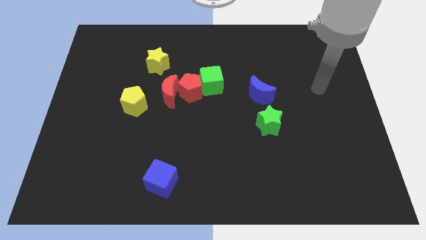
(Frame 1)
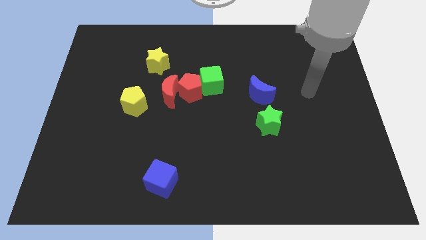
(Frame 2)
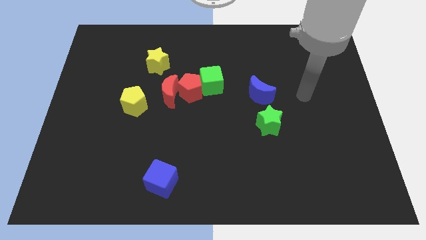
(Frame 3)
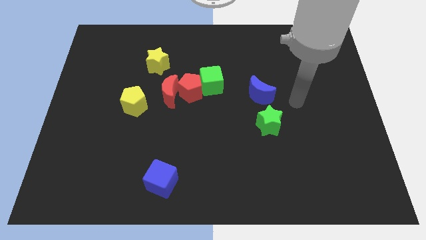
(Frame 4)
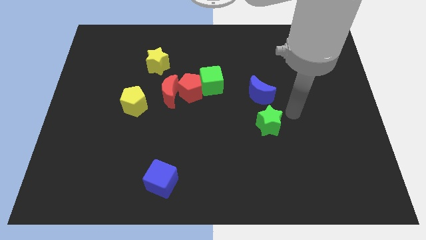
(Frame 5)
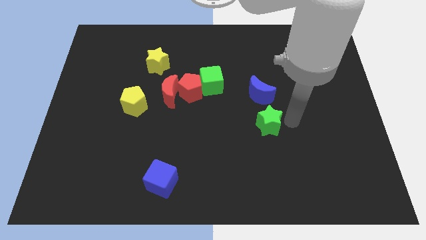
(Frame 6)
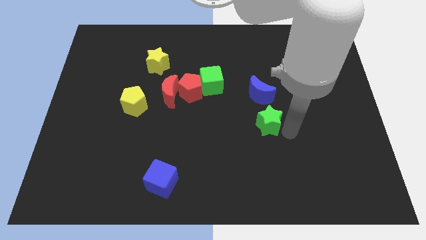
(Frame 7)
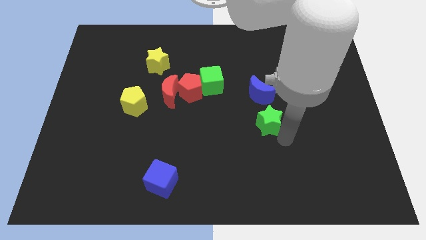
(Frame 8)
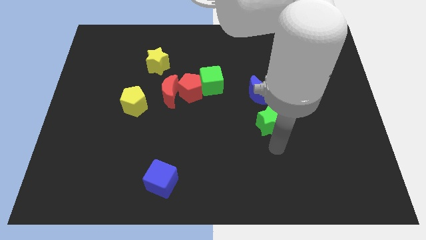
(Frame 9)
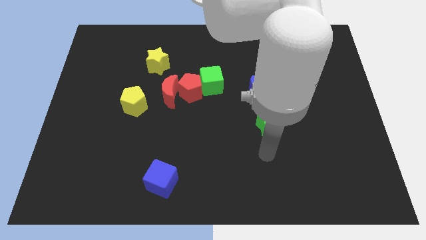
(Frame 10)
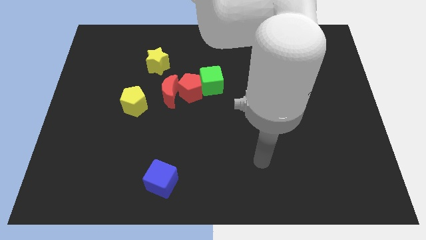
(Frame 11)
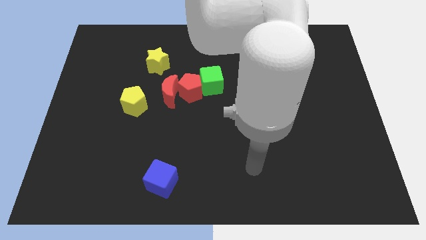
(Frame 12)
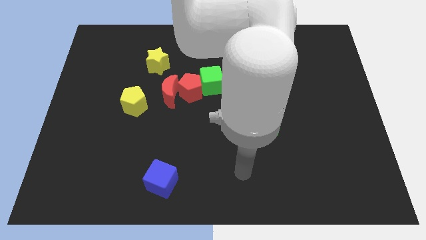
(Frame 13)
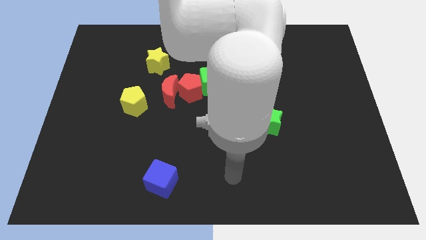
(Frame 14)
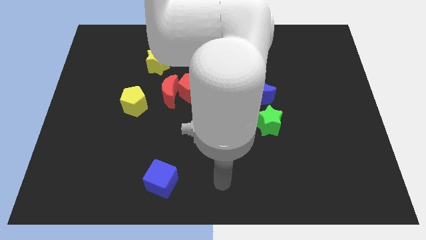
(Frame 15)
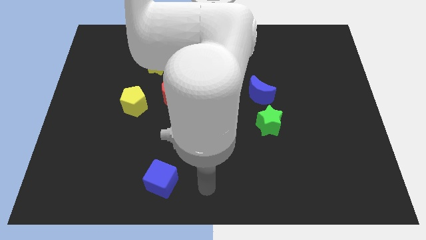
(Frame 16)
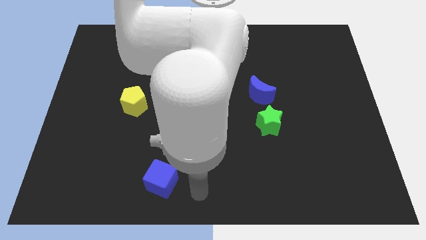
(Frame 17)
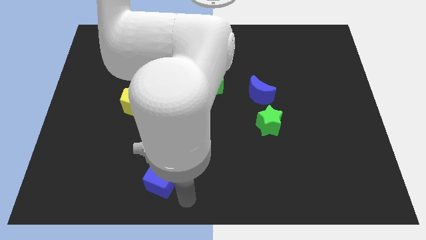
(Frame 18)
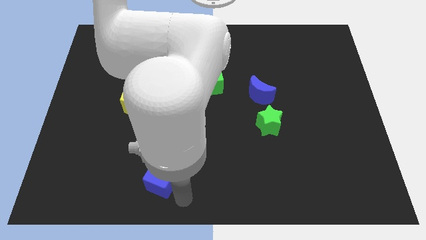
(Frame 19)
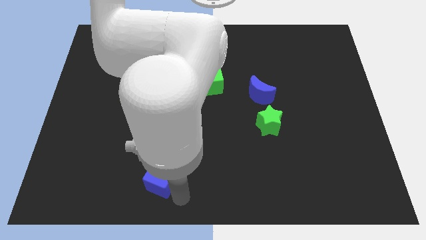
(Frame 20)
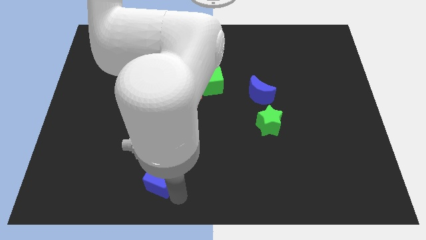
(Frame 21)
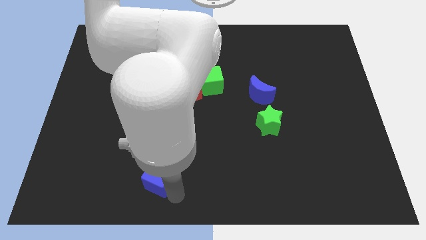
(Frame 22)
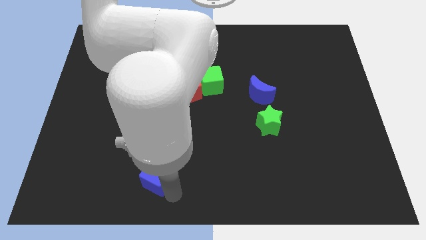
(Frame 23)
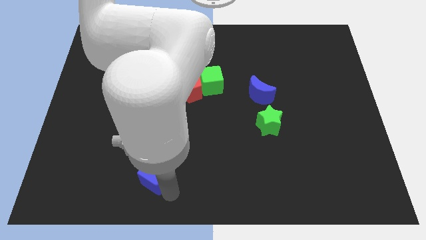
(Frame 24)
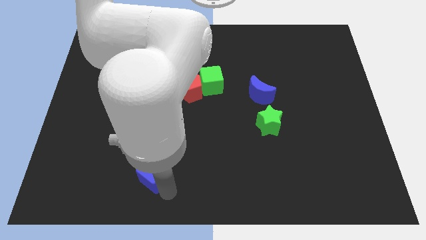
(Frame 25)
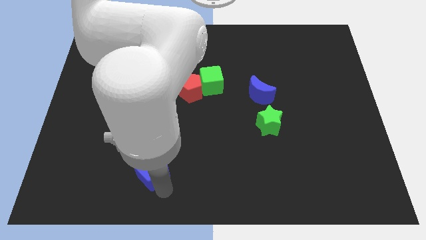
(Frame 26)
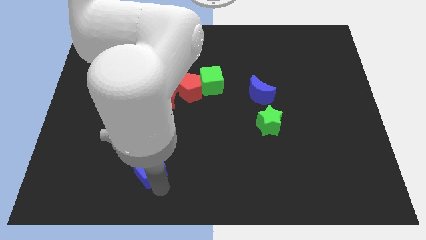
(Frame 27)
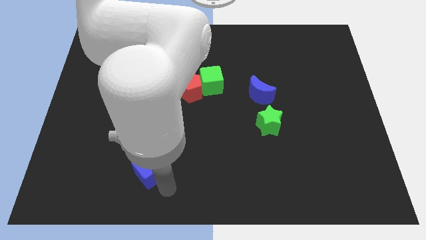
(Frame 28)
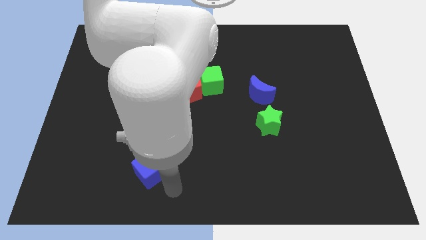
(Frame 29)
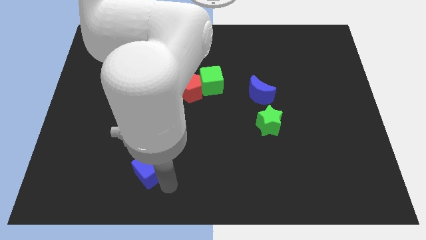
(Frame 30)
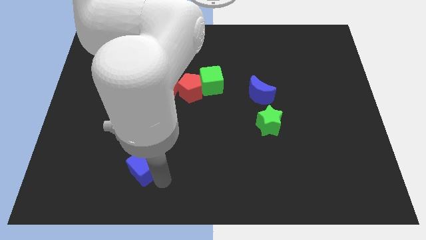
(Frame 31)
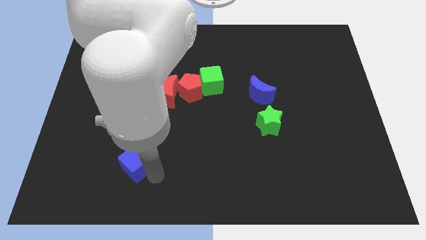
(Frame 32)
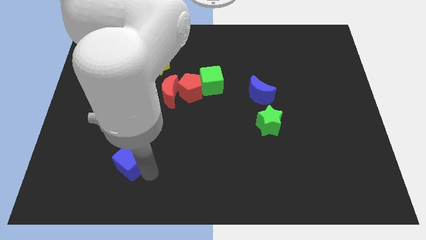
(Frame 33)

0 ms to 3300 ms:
move the blue cube upwards and to the left diagonally a bit

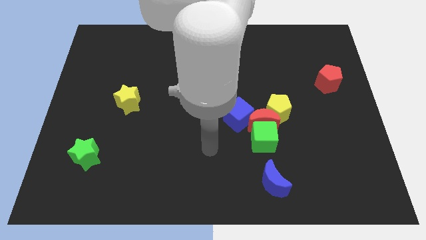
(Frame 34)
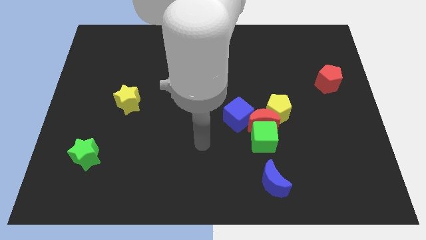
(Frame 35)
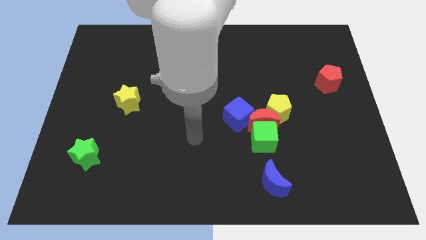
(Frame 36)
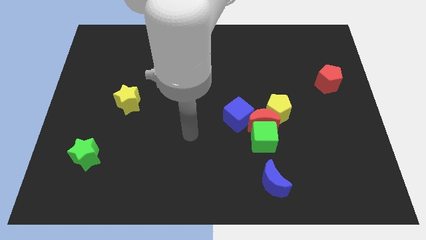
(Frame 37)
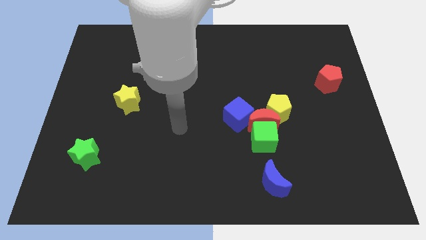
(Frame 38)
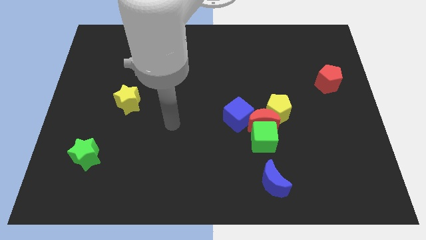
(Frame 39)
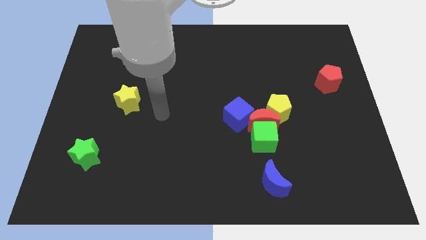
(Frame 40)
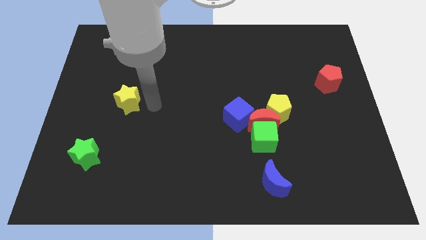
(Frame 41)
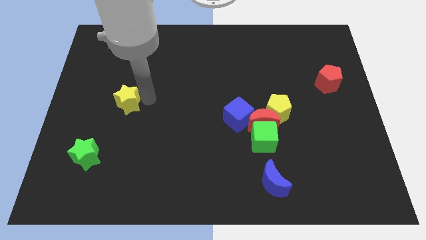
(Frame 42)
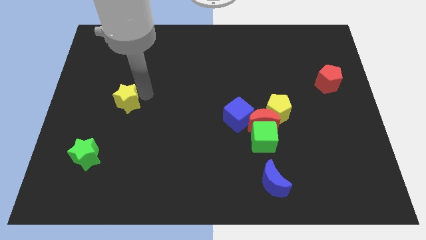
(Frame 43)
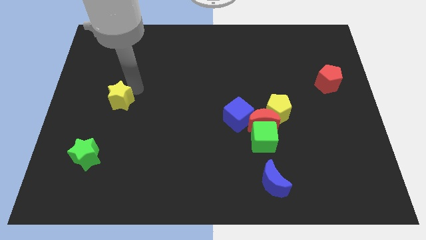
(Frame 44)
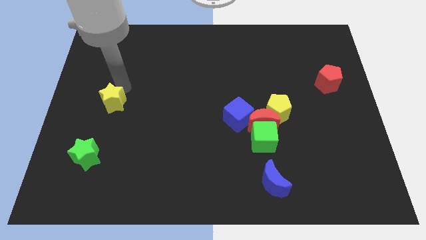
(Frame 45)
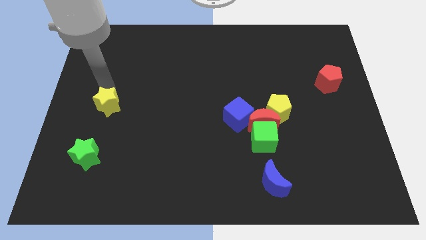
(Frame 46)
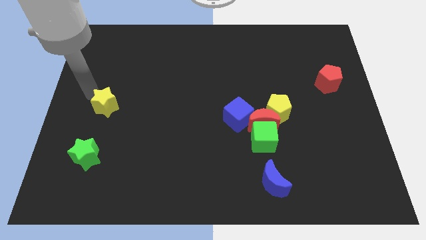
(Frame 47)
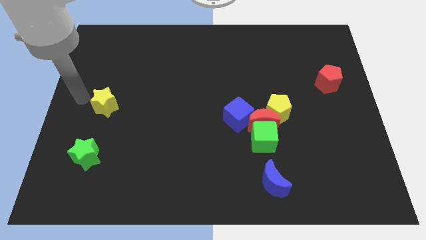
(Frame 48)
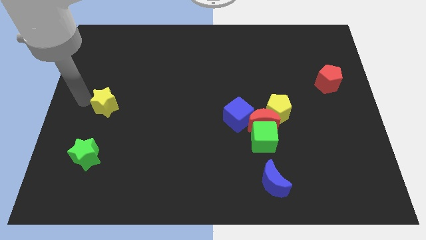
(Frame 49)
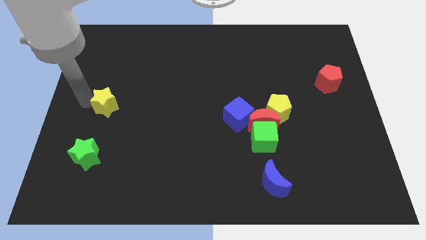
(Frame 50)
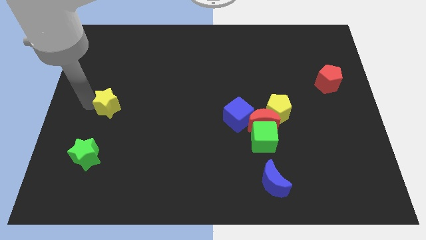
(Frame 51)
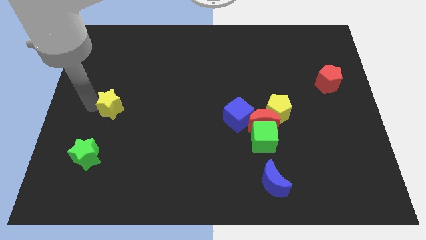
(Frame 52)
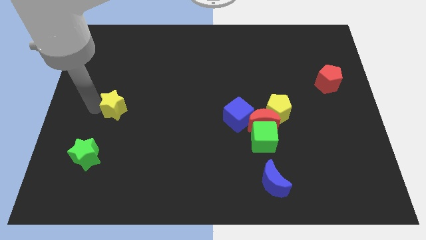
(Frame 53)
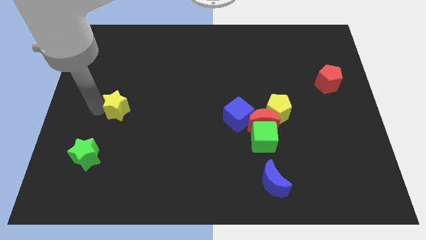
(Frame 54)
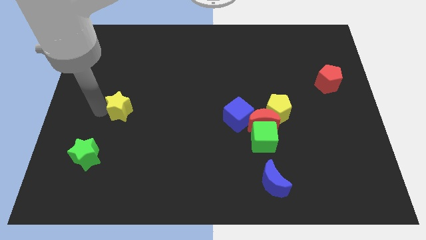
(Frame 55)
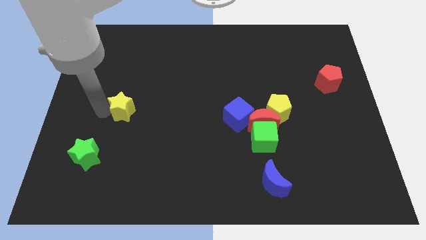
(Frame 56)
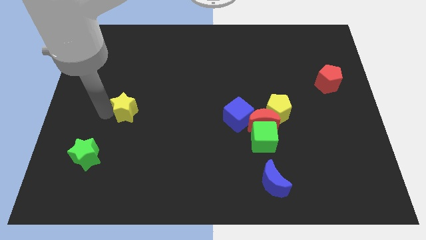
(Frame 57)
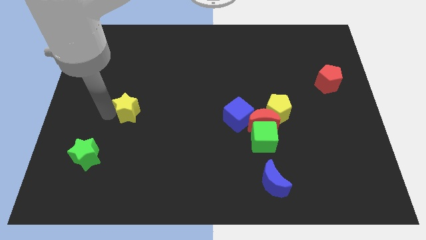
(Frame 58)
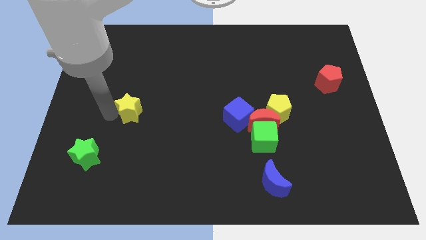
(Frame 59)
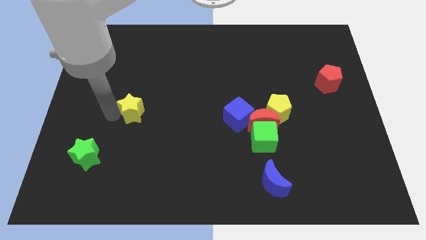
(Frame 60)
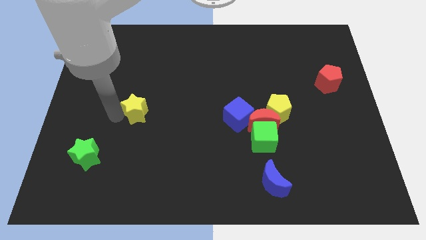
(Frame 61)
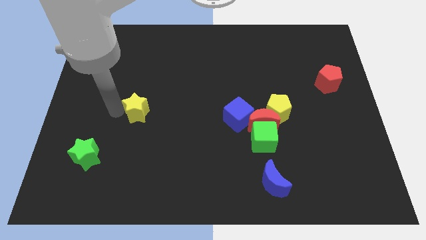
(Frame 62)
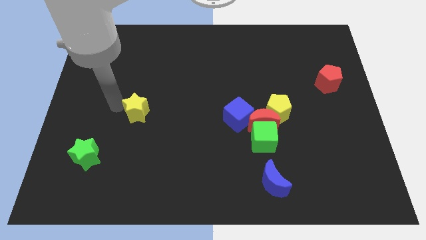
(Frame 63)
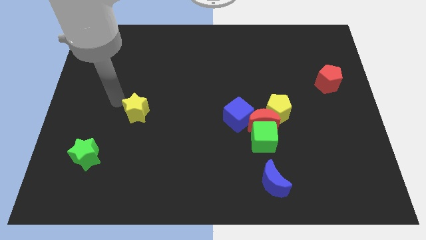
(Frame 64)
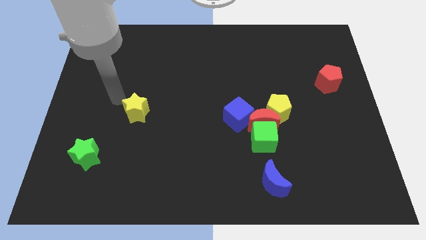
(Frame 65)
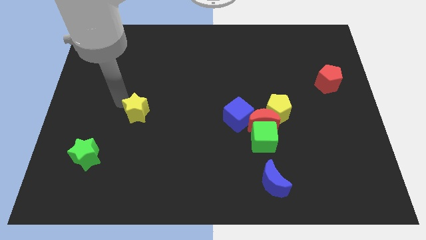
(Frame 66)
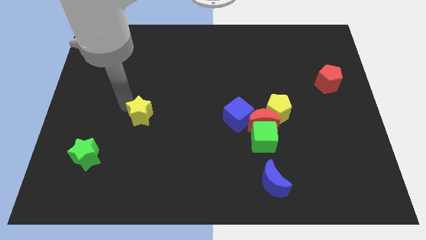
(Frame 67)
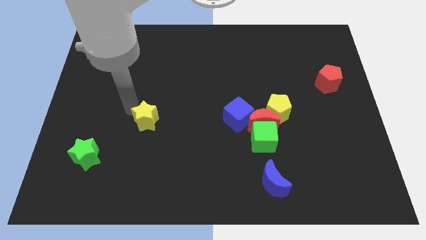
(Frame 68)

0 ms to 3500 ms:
slide the yellow star a little bit downwards and to the right

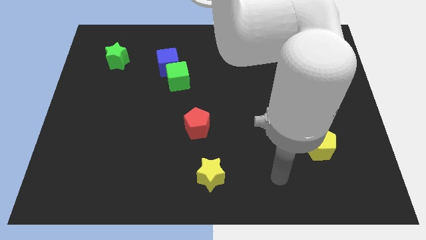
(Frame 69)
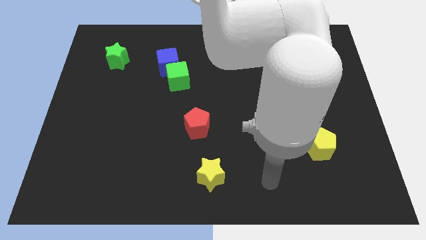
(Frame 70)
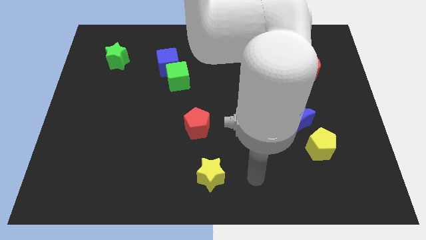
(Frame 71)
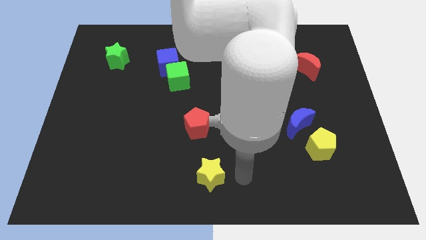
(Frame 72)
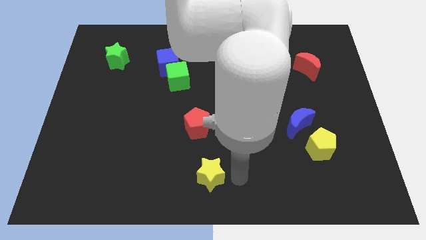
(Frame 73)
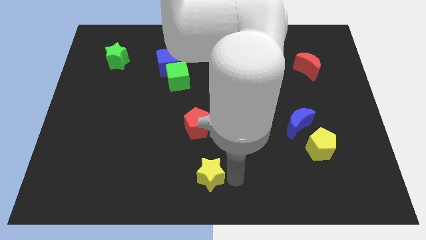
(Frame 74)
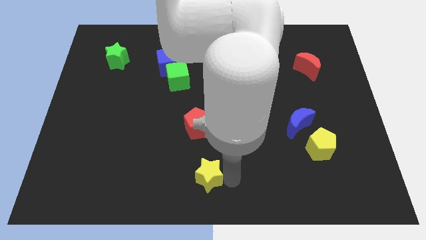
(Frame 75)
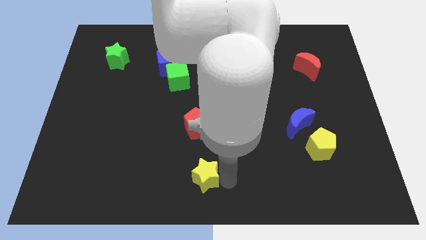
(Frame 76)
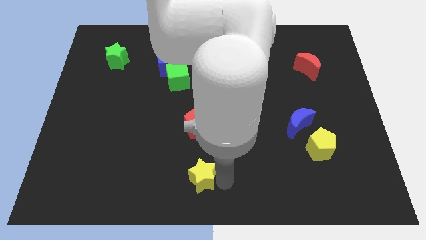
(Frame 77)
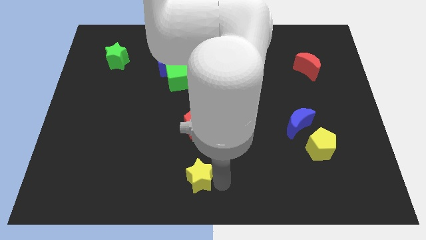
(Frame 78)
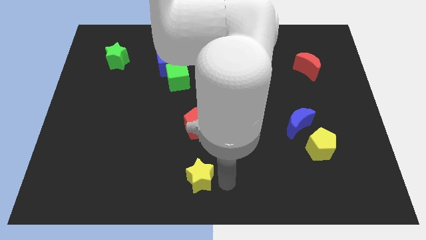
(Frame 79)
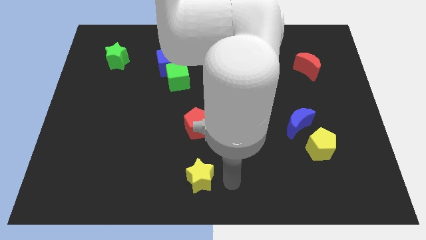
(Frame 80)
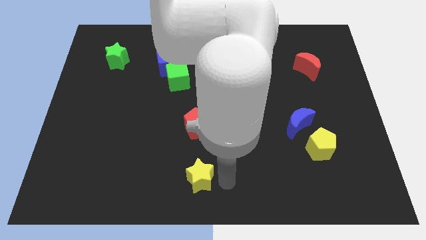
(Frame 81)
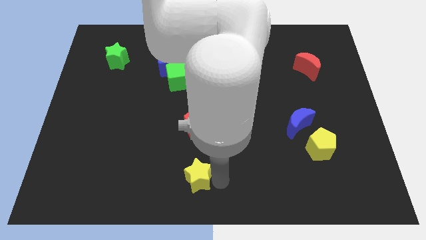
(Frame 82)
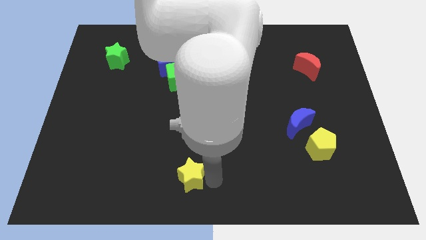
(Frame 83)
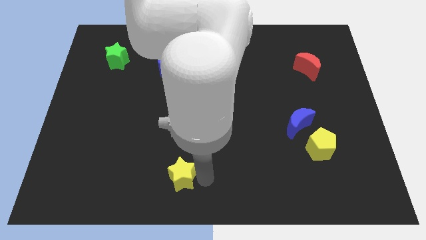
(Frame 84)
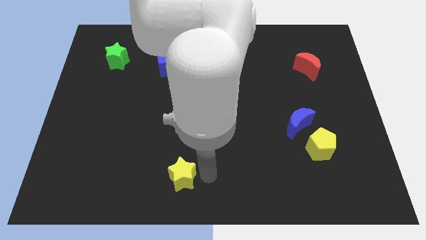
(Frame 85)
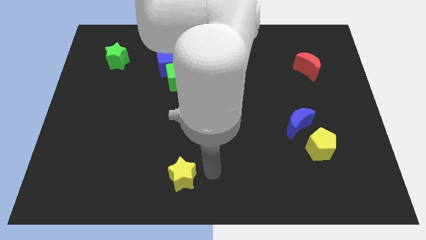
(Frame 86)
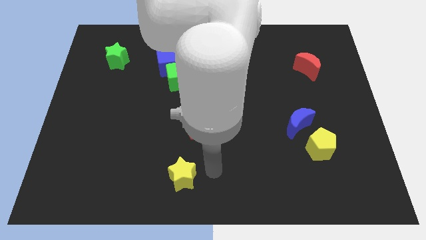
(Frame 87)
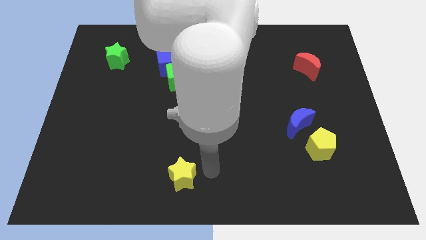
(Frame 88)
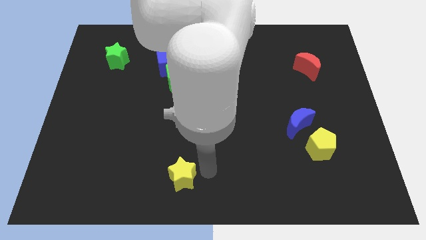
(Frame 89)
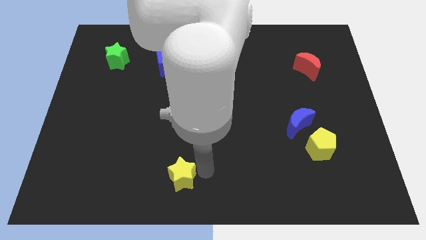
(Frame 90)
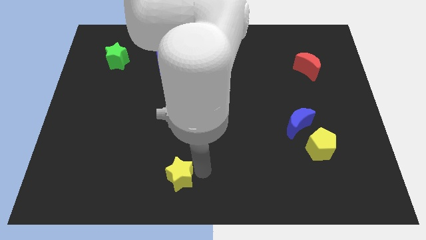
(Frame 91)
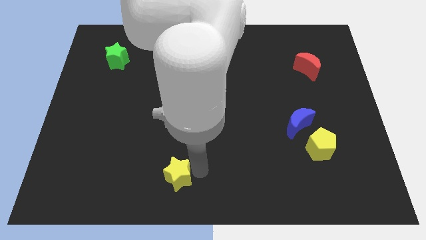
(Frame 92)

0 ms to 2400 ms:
slightly push the yellow star left
